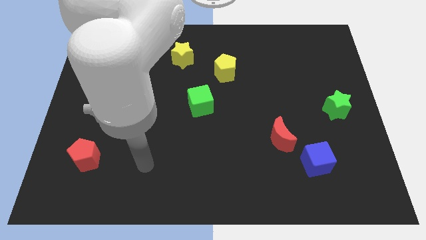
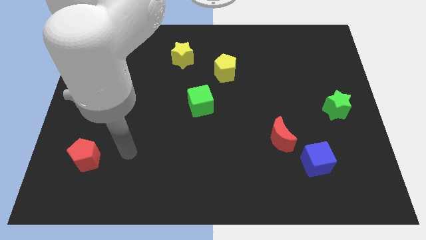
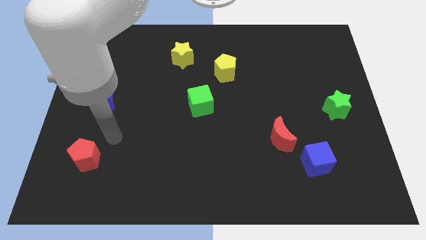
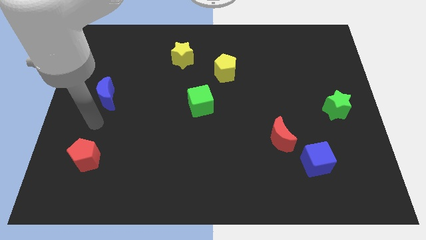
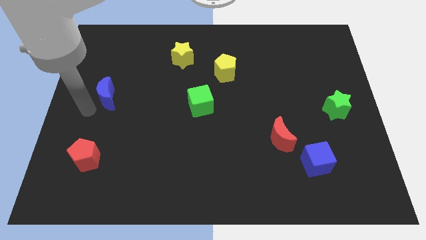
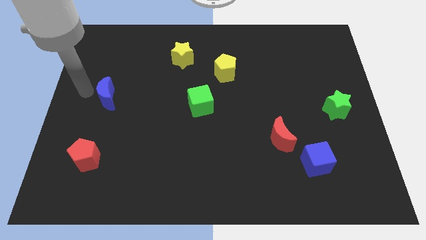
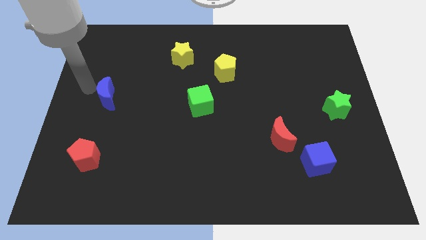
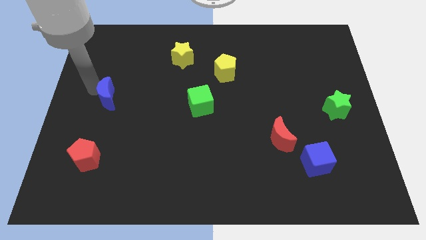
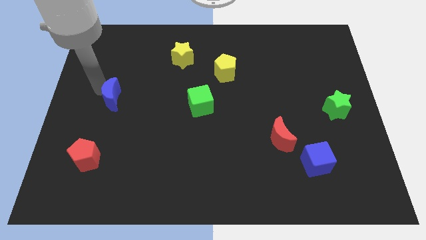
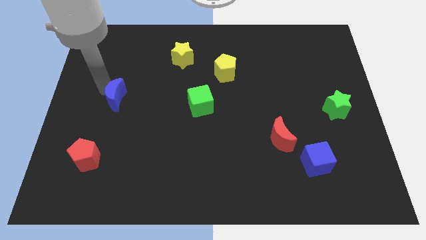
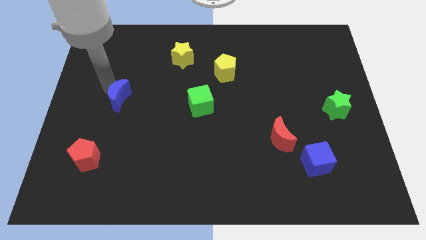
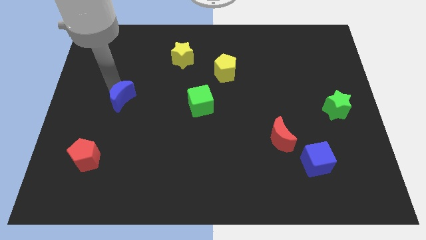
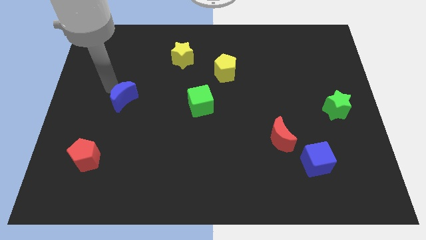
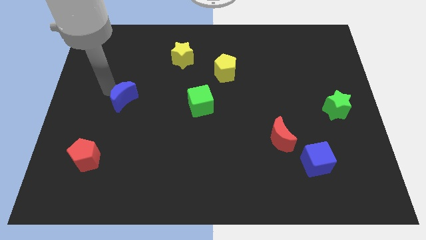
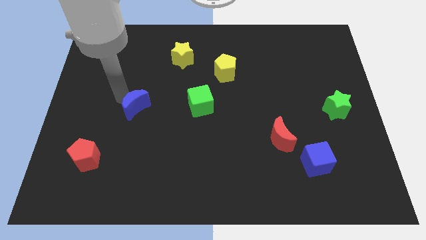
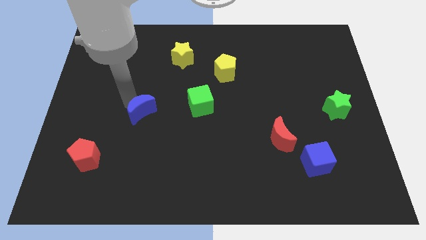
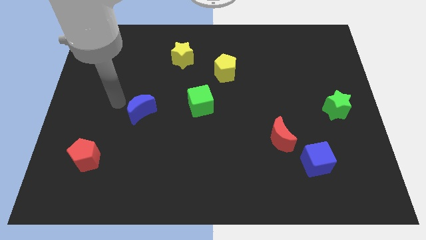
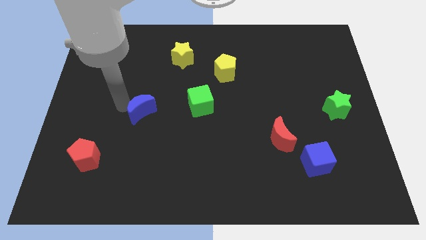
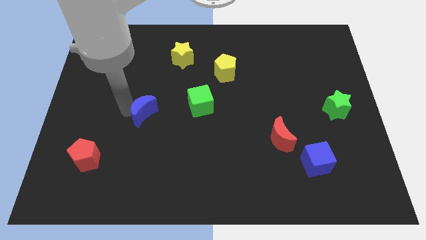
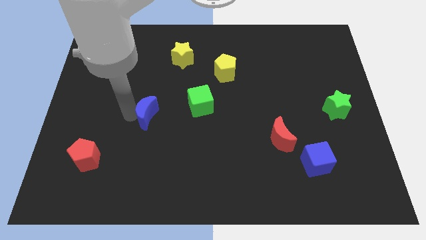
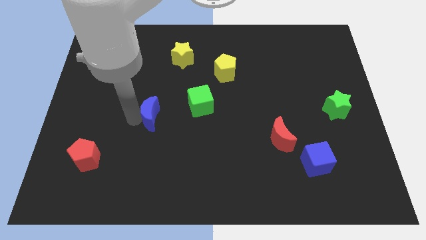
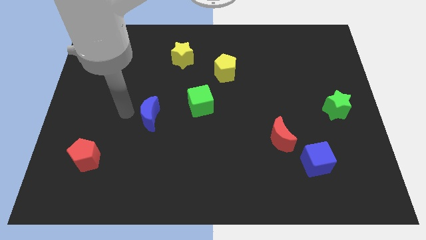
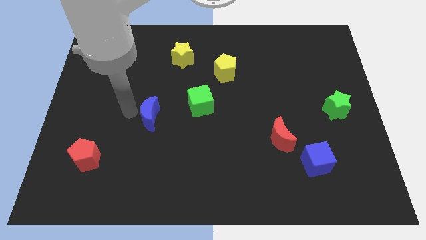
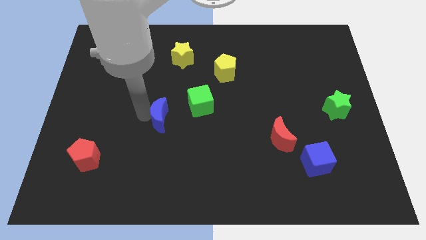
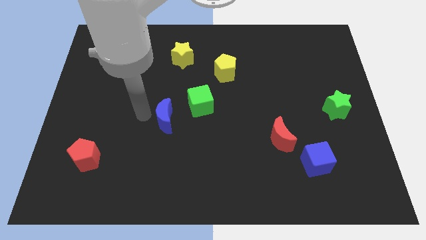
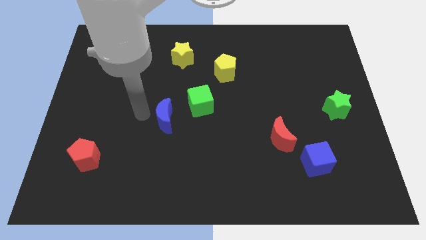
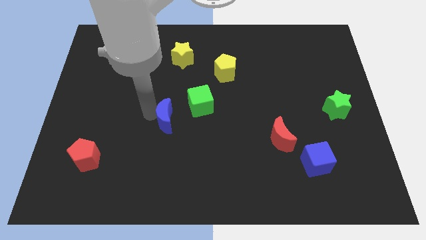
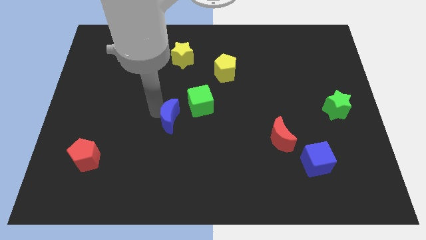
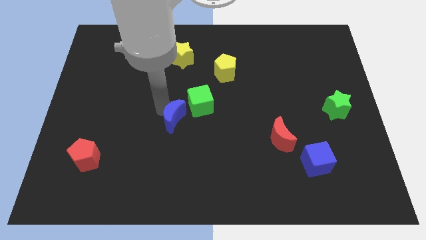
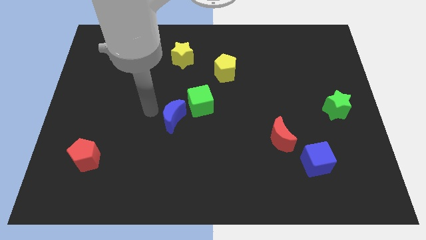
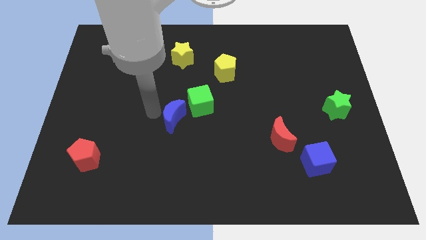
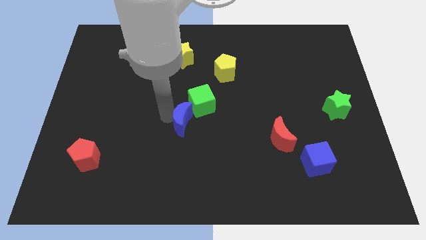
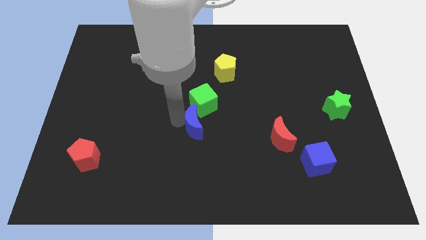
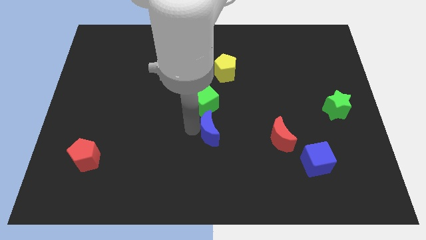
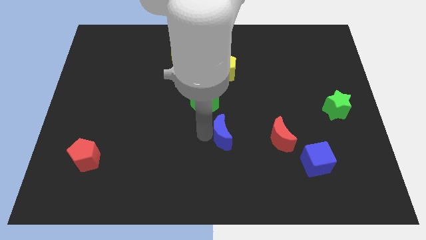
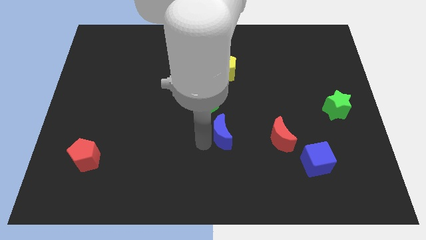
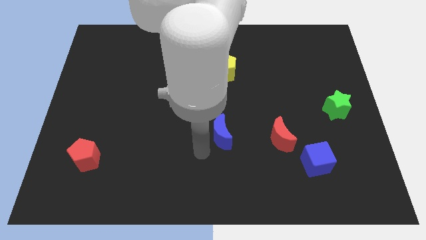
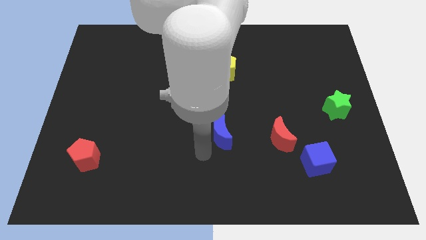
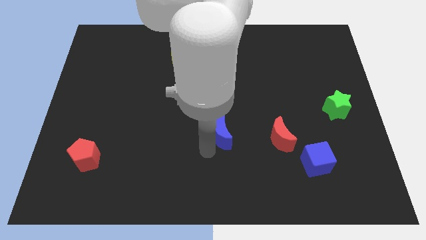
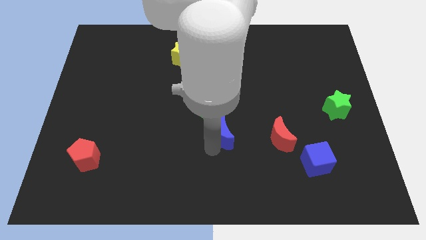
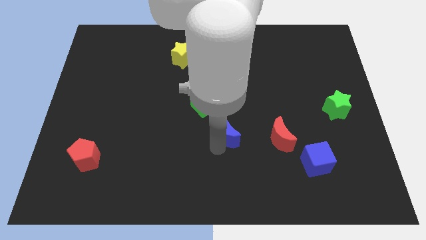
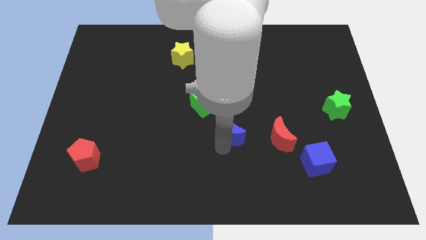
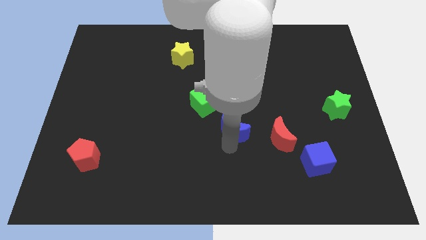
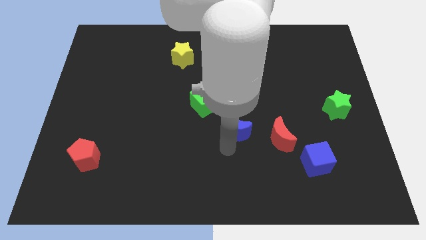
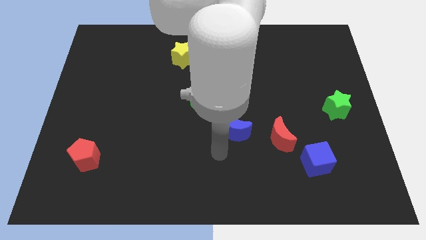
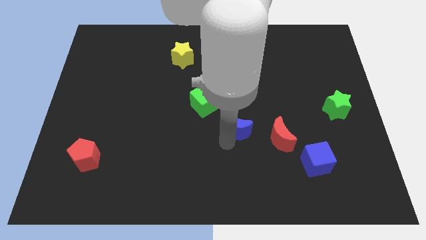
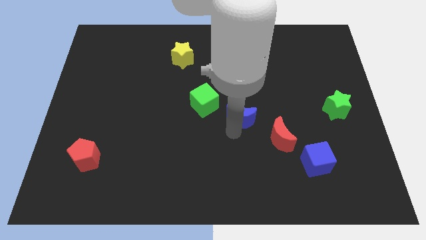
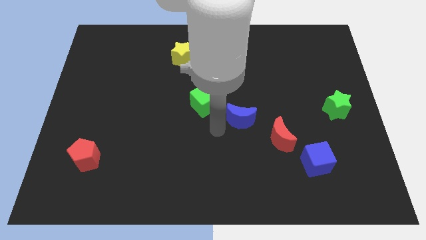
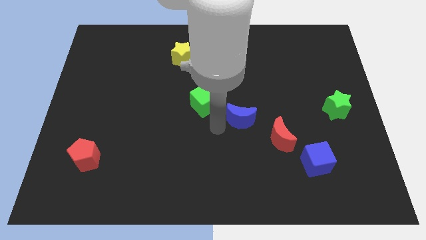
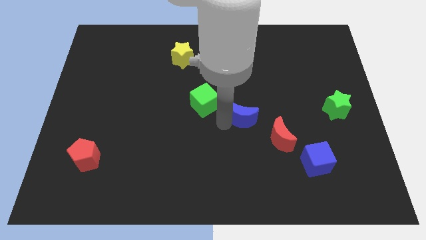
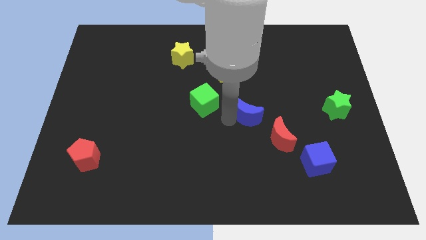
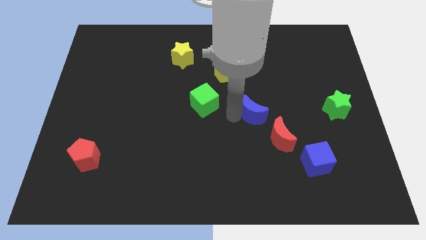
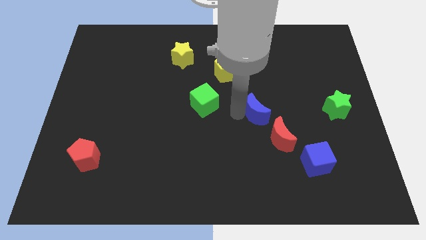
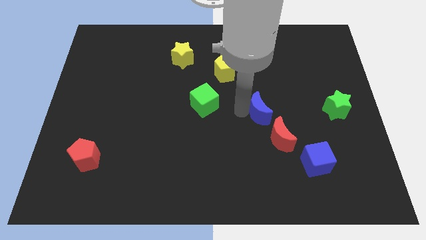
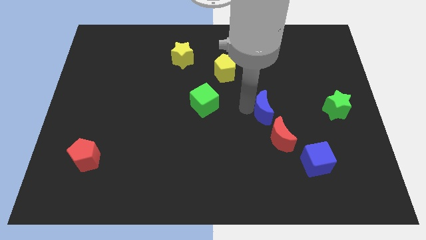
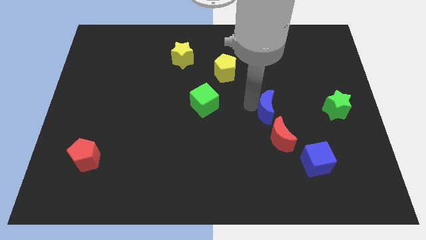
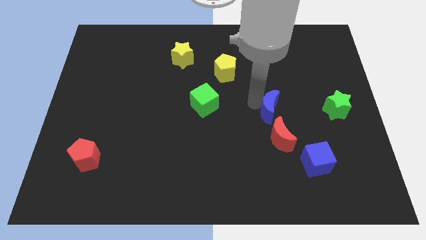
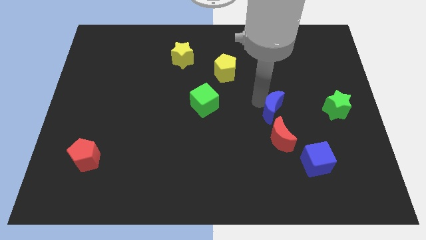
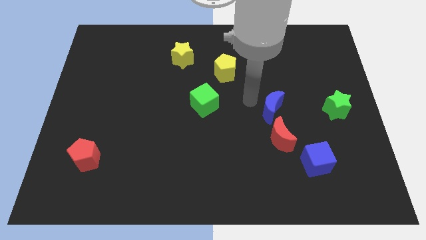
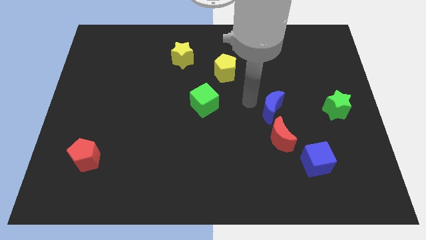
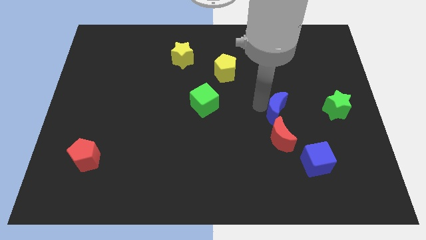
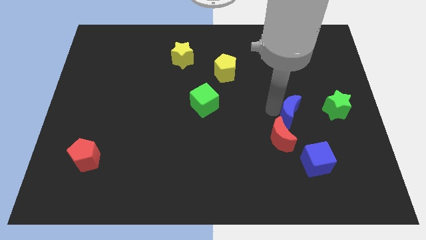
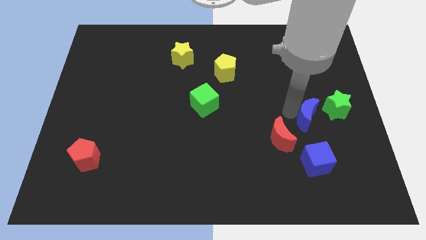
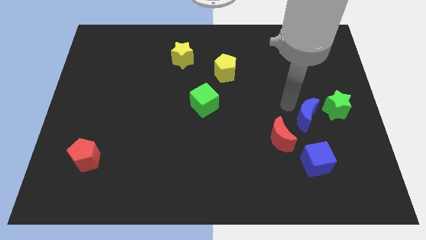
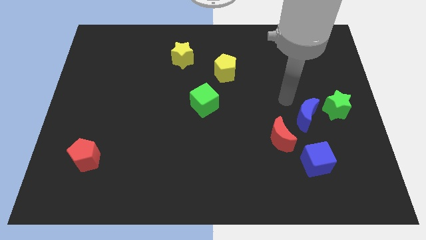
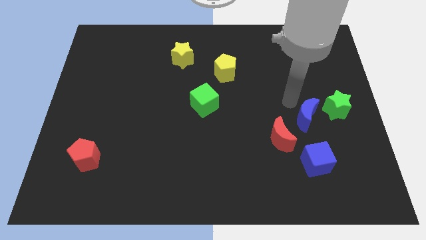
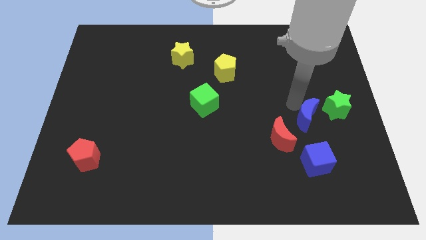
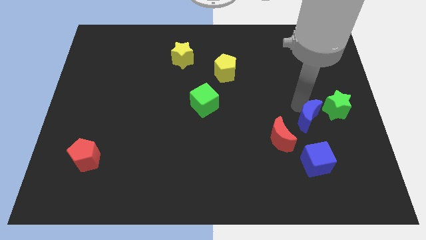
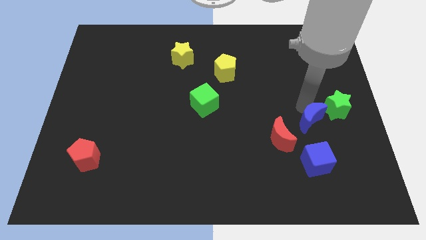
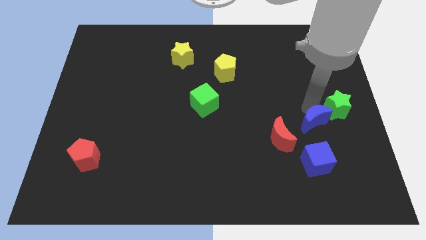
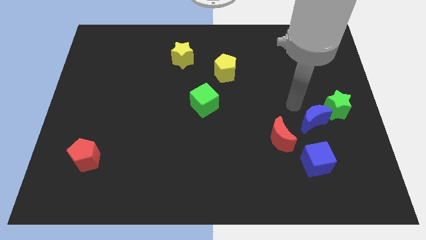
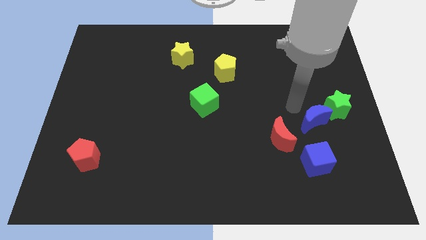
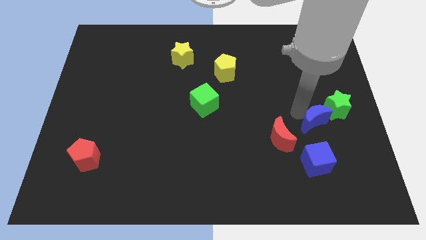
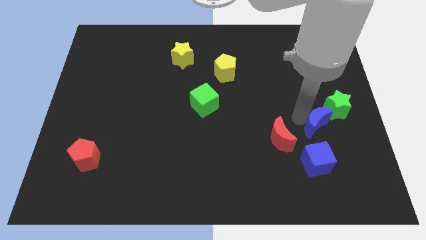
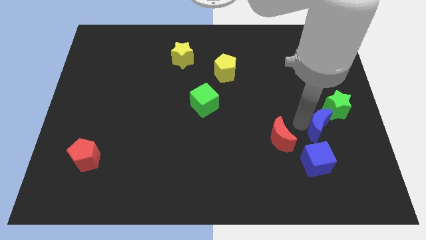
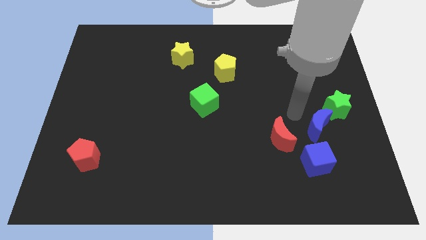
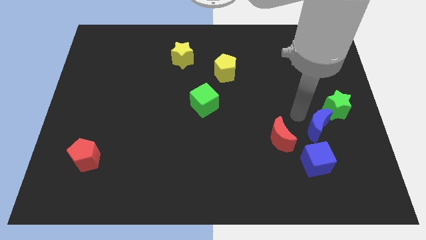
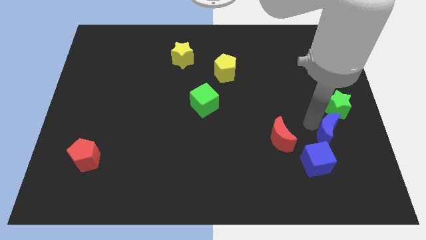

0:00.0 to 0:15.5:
slide the blue moon to the bottom side of the green star
